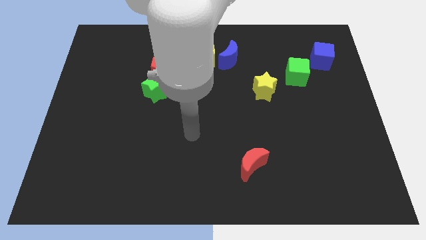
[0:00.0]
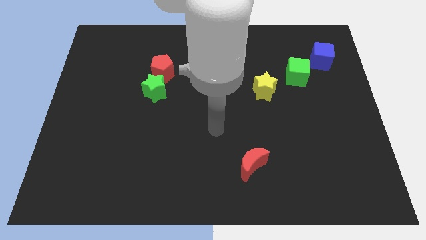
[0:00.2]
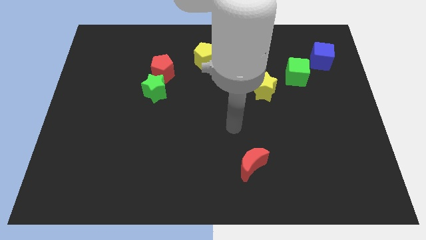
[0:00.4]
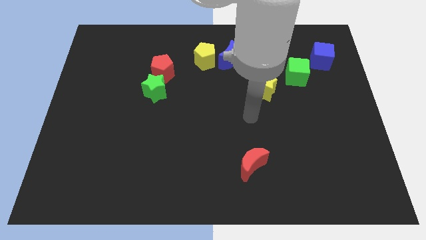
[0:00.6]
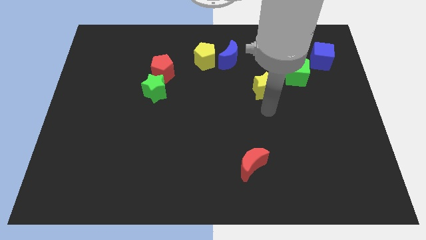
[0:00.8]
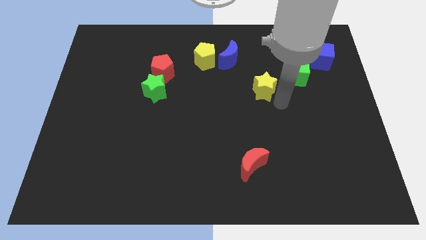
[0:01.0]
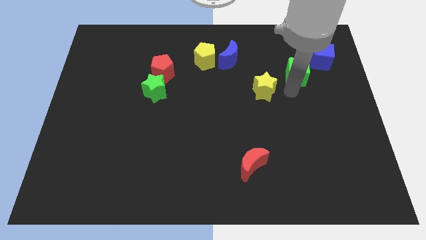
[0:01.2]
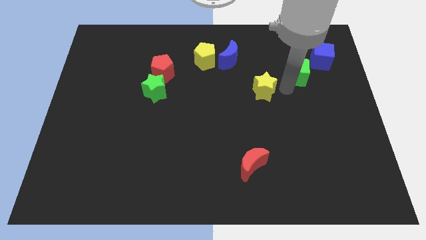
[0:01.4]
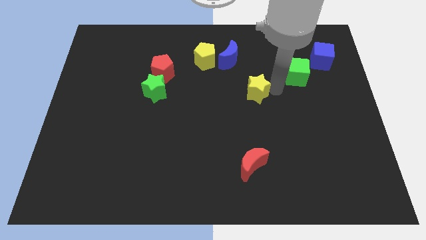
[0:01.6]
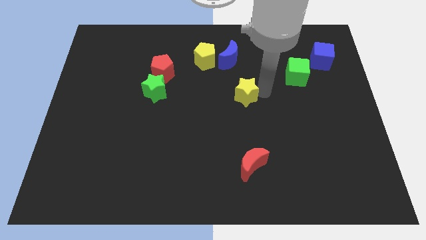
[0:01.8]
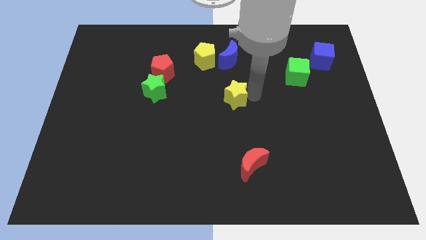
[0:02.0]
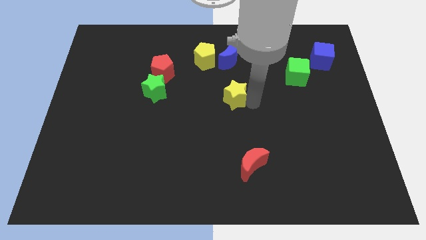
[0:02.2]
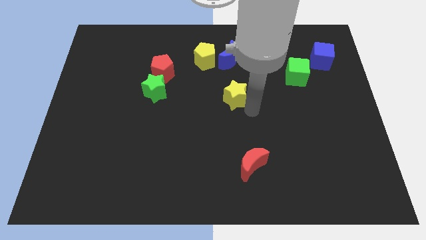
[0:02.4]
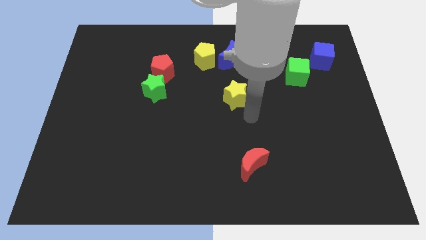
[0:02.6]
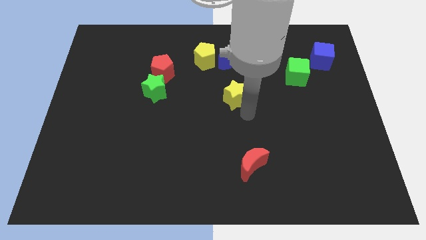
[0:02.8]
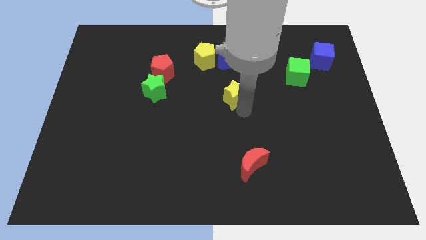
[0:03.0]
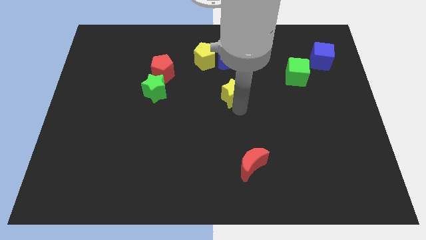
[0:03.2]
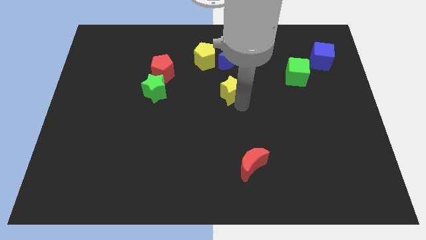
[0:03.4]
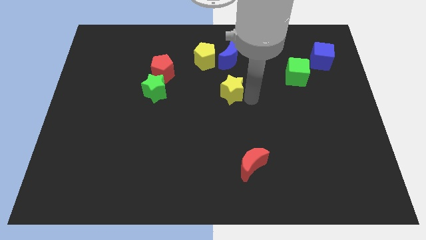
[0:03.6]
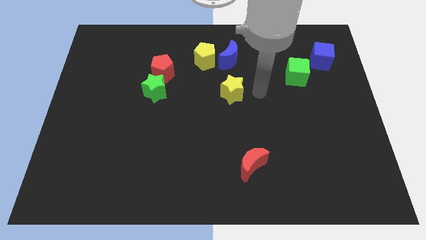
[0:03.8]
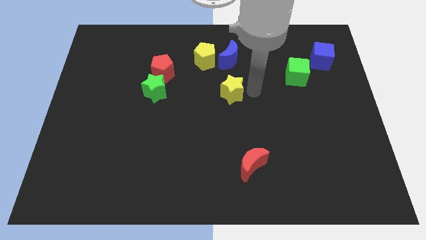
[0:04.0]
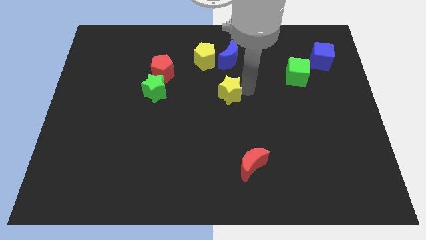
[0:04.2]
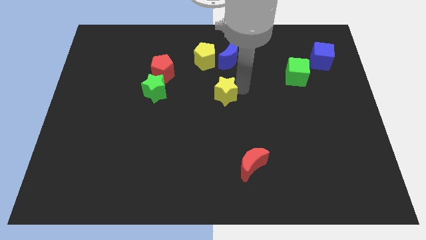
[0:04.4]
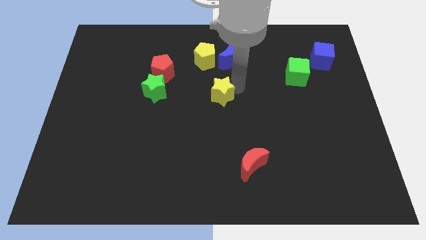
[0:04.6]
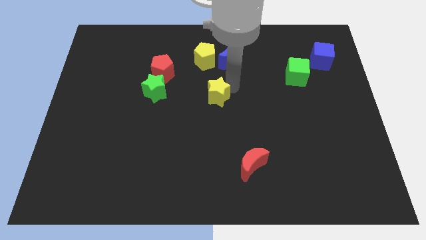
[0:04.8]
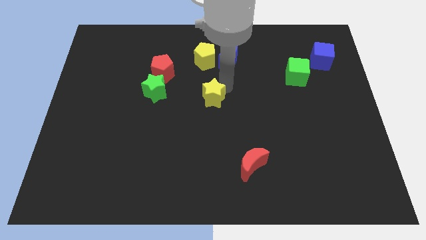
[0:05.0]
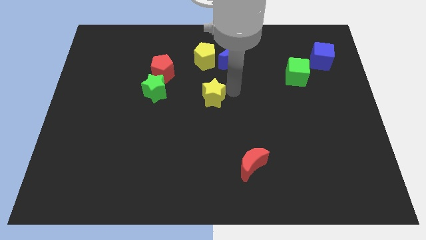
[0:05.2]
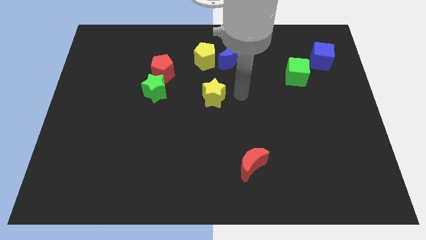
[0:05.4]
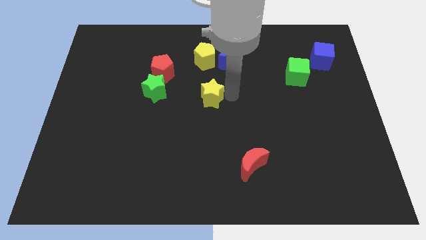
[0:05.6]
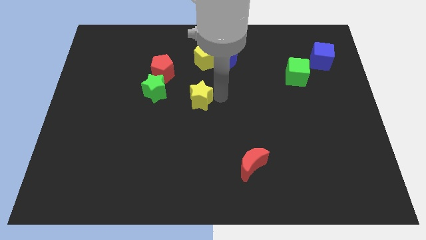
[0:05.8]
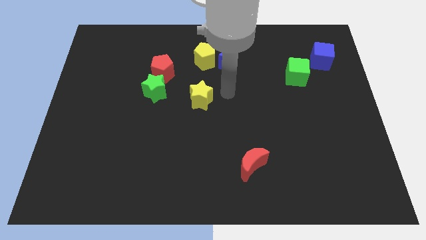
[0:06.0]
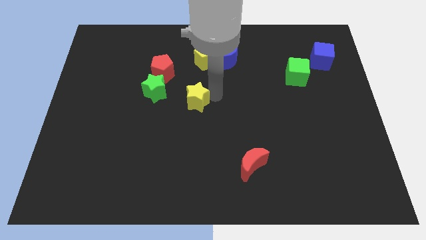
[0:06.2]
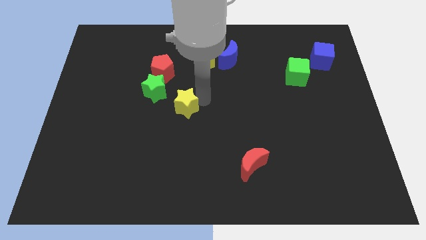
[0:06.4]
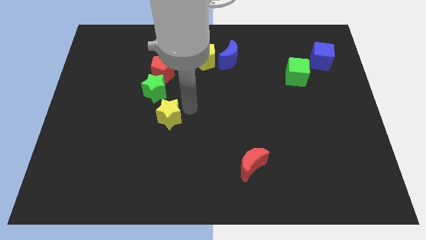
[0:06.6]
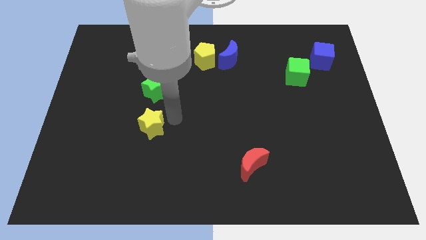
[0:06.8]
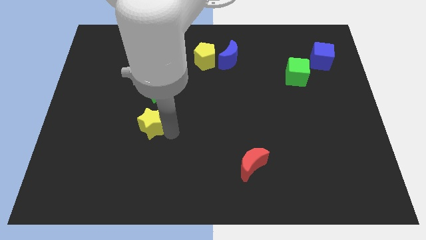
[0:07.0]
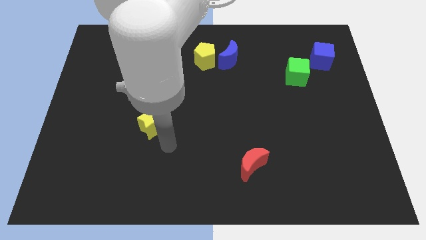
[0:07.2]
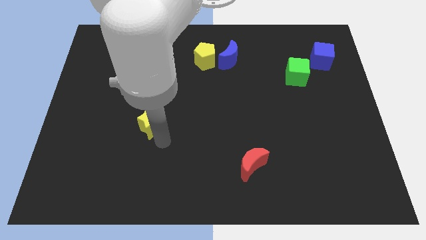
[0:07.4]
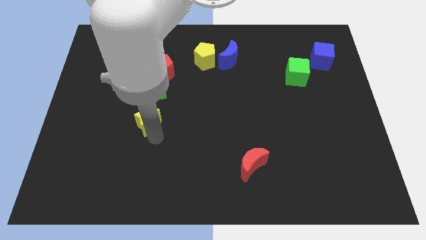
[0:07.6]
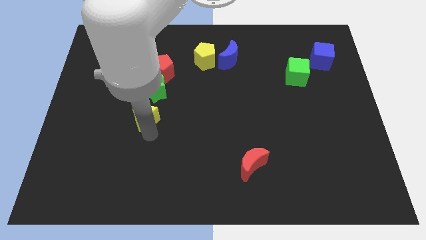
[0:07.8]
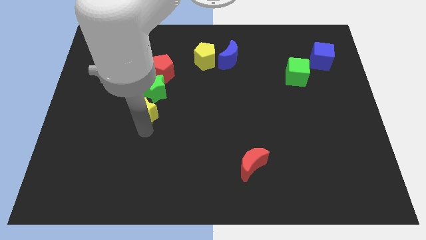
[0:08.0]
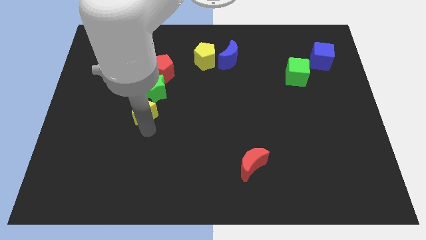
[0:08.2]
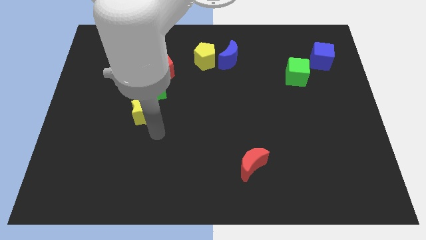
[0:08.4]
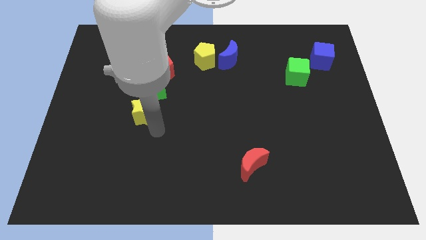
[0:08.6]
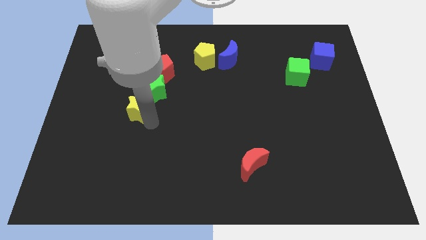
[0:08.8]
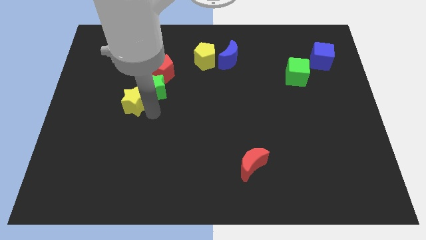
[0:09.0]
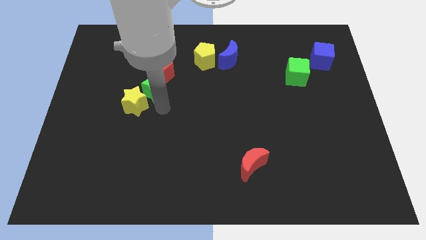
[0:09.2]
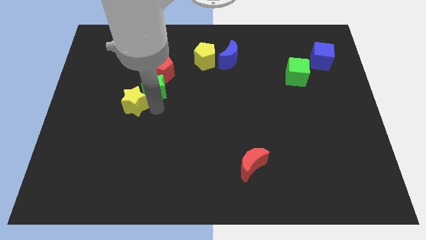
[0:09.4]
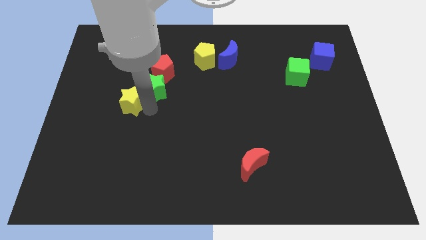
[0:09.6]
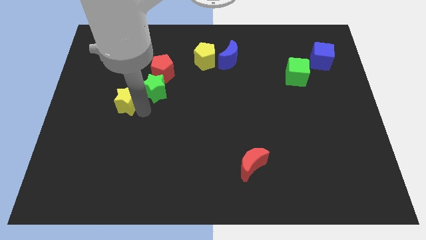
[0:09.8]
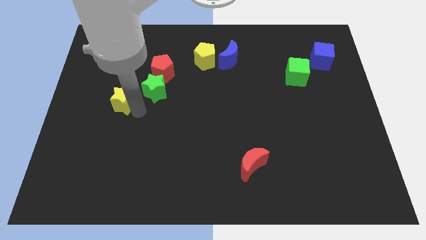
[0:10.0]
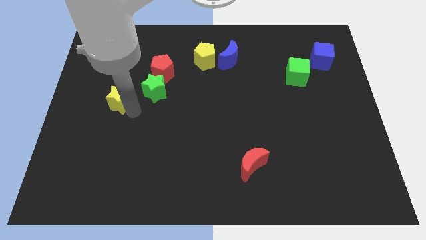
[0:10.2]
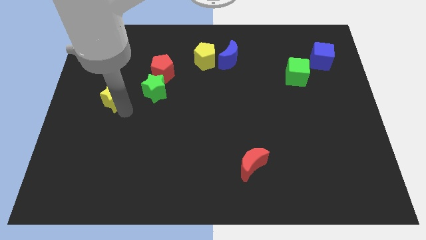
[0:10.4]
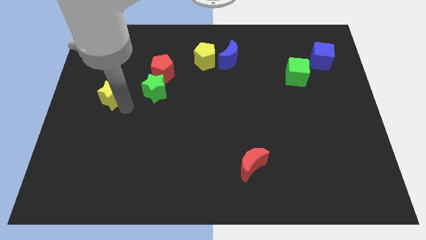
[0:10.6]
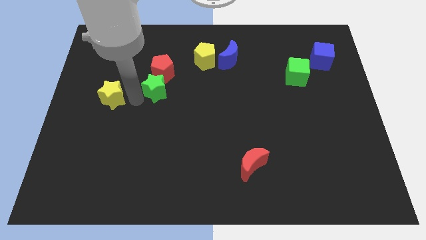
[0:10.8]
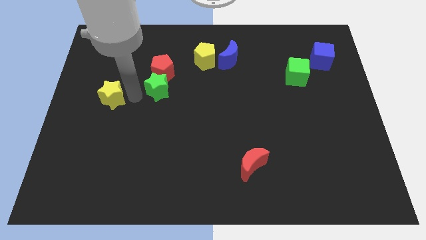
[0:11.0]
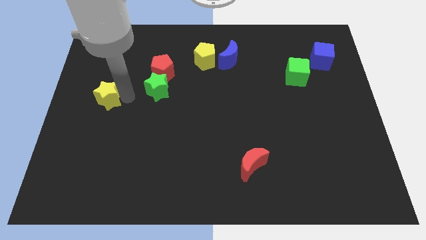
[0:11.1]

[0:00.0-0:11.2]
move the yellow star to the center left
